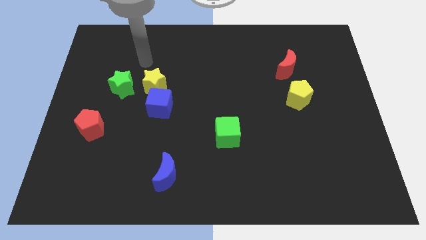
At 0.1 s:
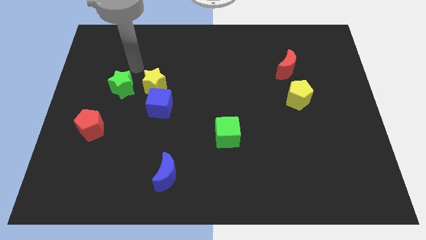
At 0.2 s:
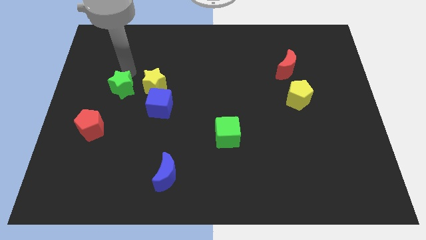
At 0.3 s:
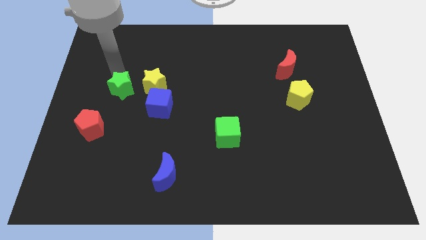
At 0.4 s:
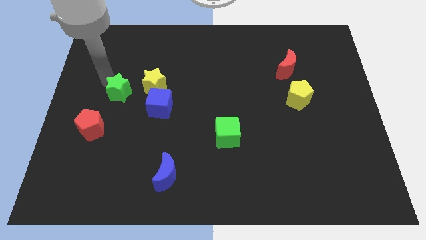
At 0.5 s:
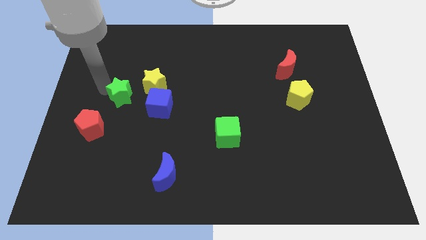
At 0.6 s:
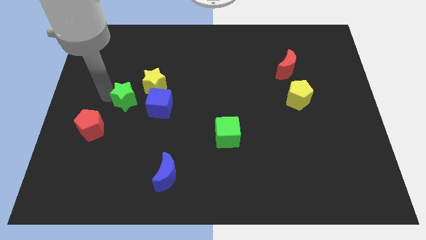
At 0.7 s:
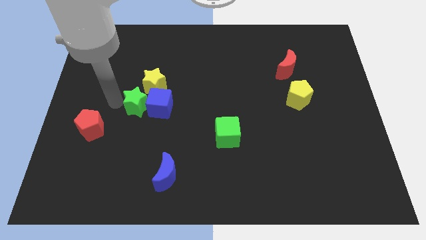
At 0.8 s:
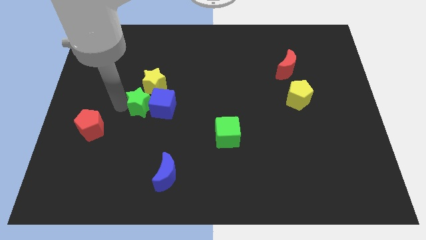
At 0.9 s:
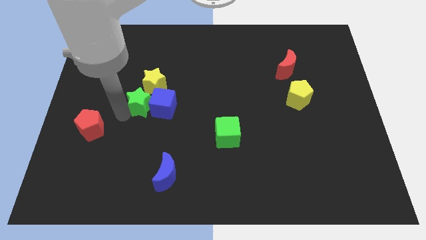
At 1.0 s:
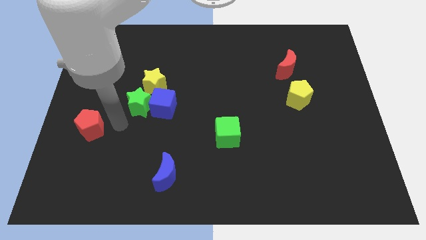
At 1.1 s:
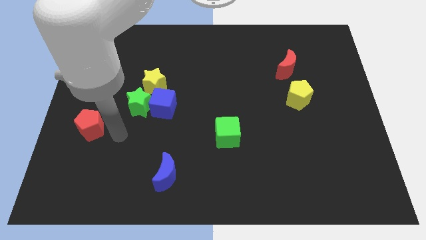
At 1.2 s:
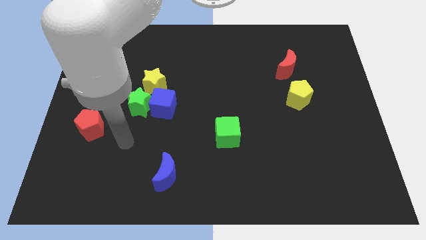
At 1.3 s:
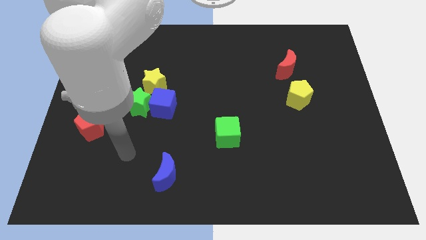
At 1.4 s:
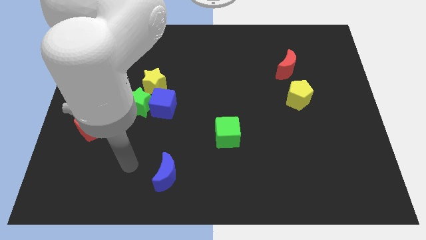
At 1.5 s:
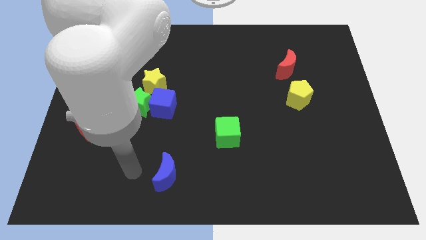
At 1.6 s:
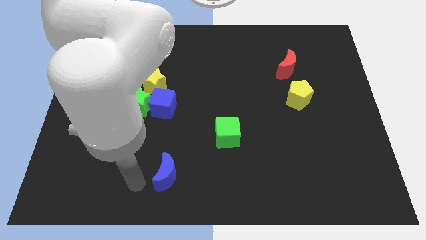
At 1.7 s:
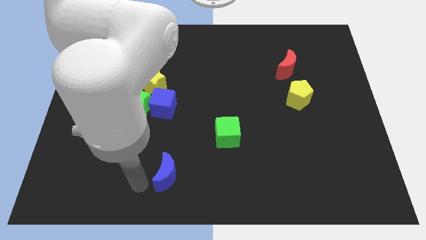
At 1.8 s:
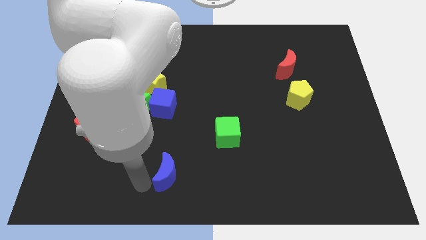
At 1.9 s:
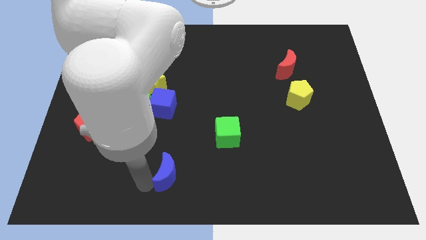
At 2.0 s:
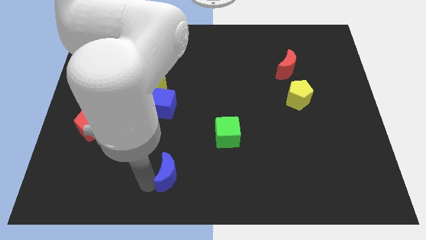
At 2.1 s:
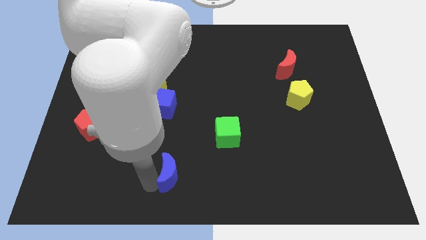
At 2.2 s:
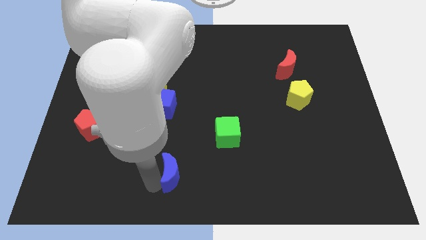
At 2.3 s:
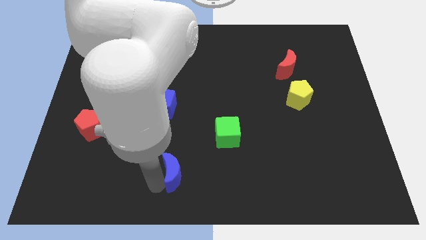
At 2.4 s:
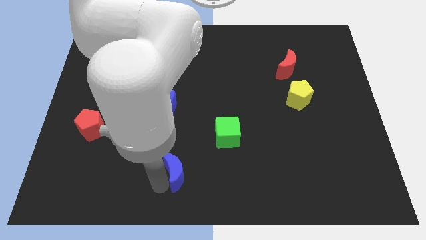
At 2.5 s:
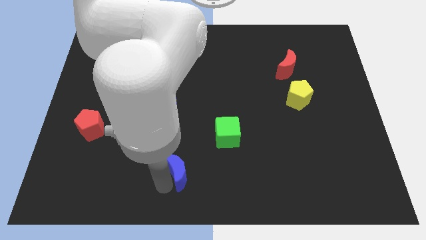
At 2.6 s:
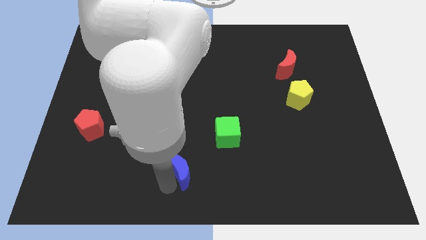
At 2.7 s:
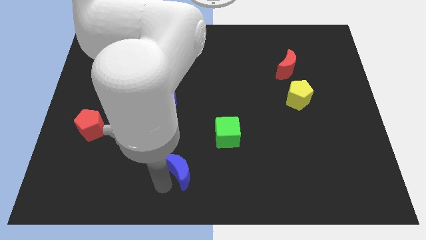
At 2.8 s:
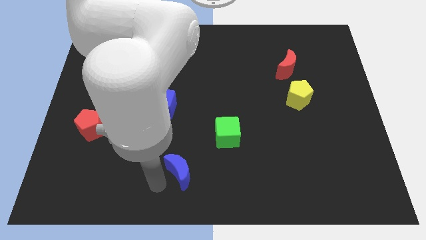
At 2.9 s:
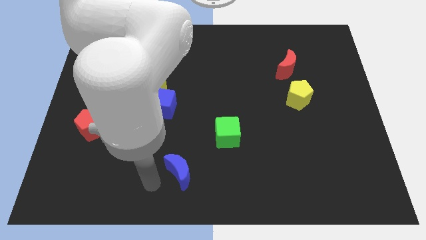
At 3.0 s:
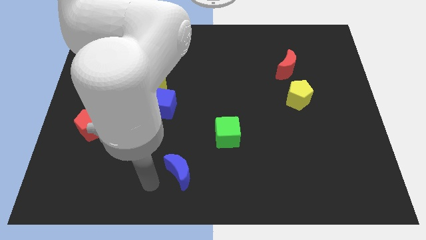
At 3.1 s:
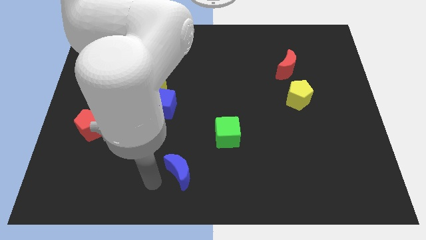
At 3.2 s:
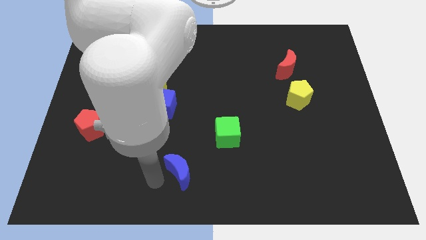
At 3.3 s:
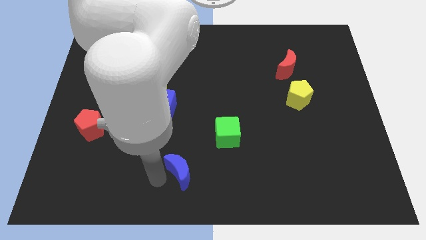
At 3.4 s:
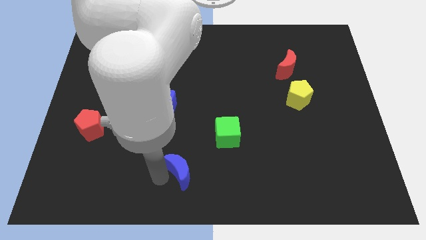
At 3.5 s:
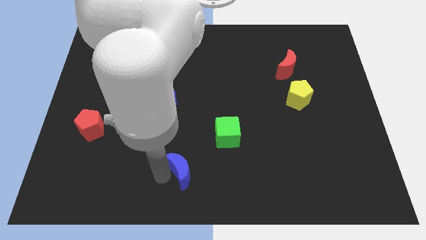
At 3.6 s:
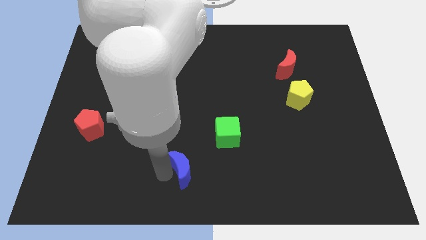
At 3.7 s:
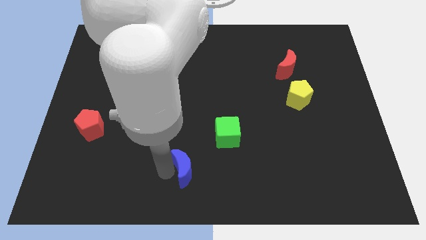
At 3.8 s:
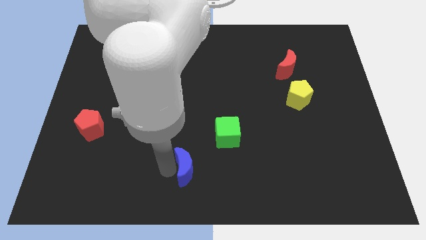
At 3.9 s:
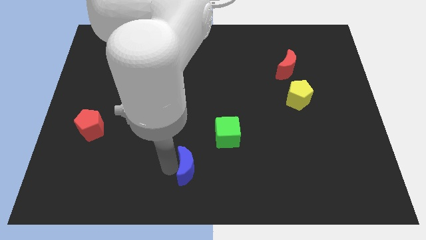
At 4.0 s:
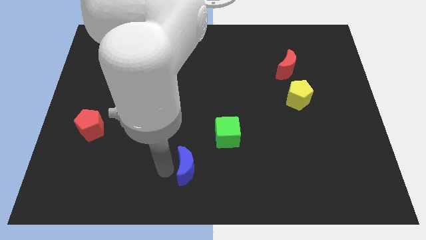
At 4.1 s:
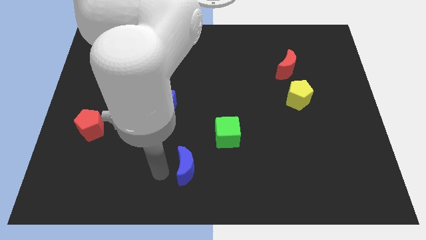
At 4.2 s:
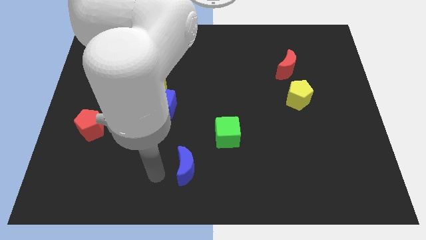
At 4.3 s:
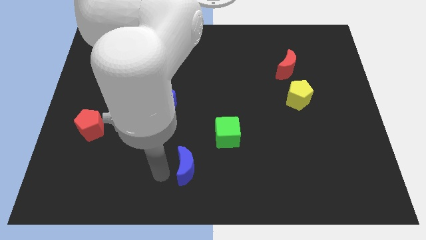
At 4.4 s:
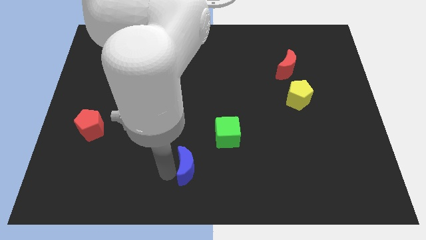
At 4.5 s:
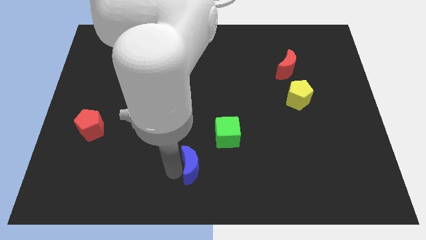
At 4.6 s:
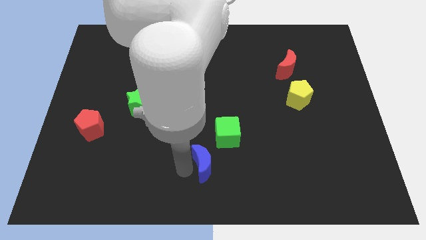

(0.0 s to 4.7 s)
push the blue moon somewhat upwards and then right

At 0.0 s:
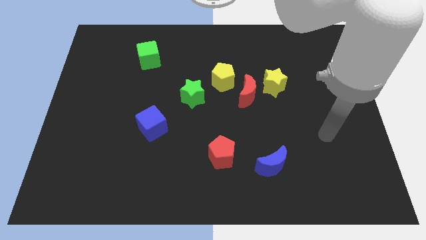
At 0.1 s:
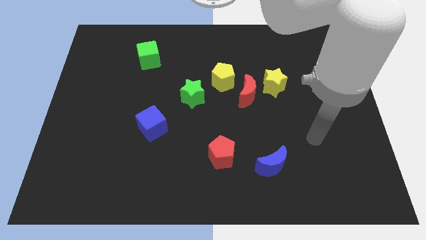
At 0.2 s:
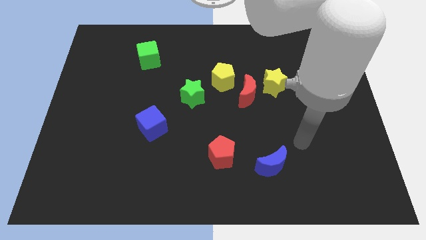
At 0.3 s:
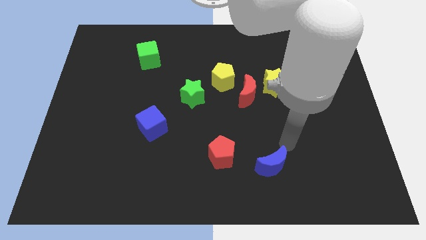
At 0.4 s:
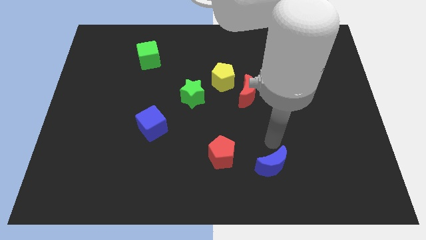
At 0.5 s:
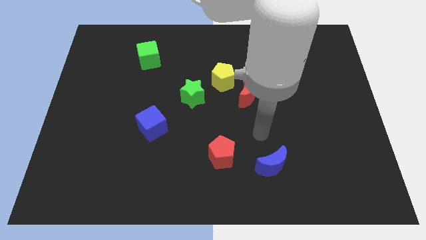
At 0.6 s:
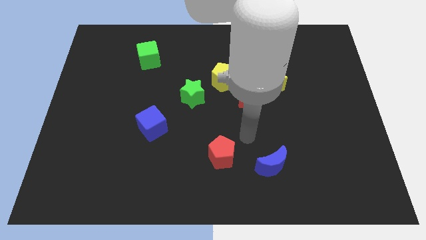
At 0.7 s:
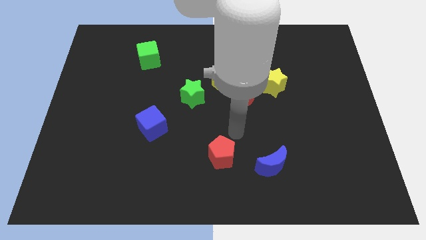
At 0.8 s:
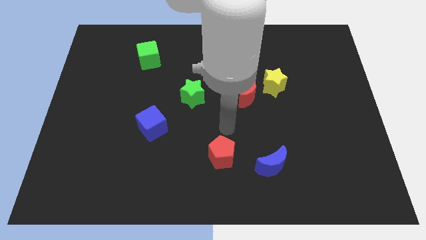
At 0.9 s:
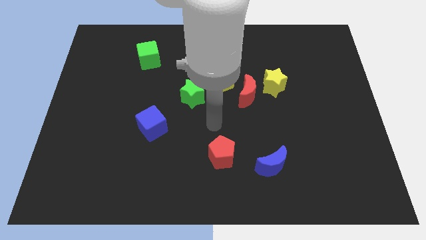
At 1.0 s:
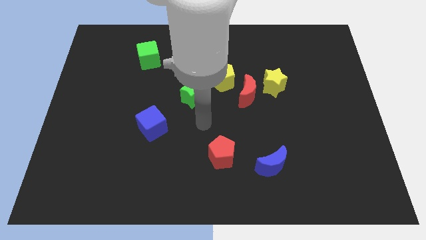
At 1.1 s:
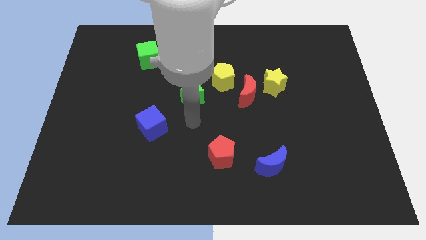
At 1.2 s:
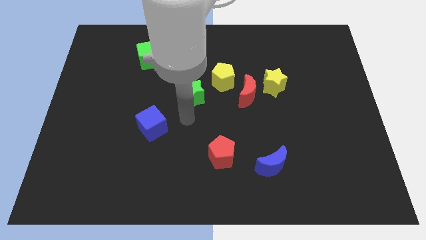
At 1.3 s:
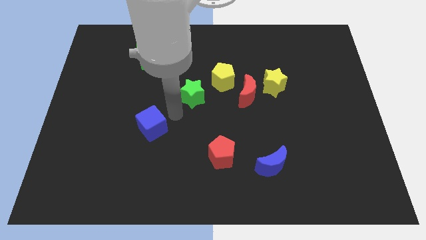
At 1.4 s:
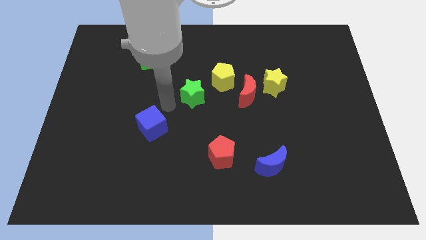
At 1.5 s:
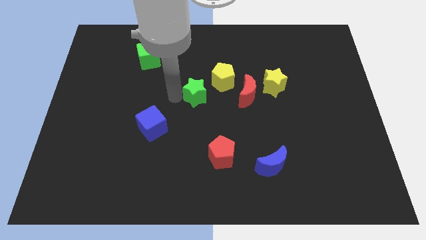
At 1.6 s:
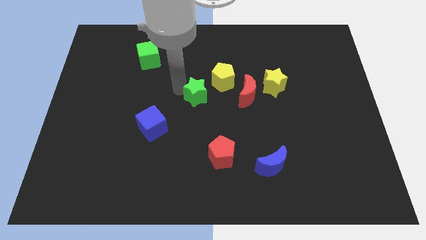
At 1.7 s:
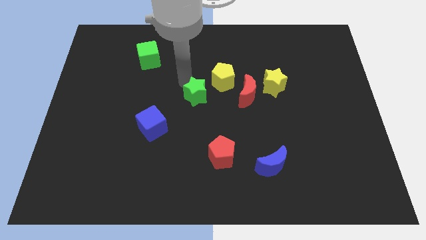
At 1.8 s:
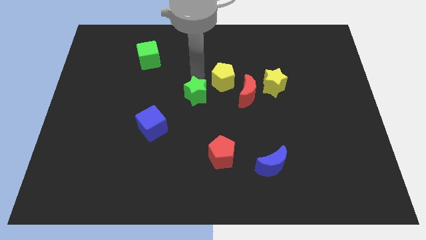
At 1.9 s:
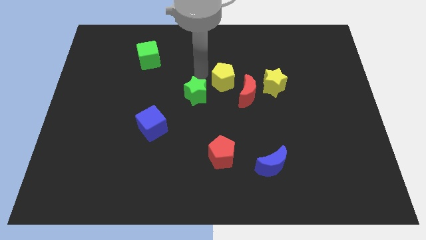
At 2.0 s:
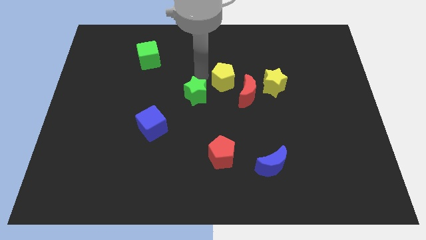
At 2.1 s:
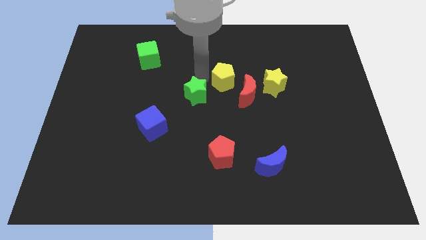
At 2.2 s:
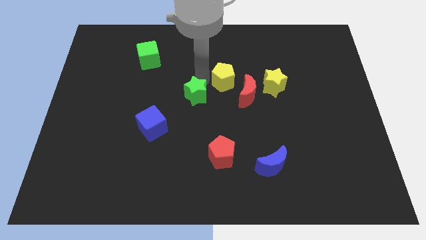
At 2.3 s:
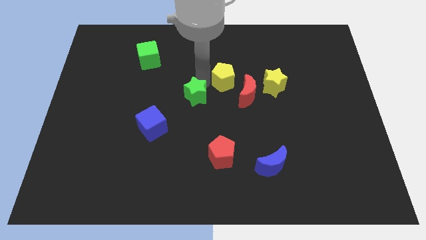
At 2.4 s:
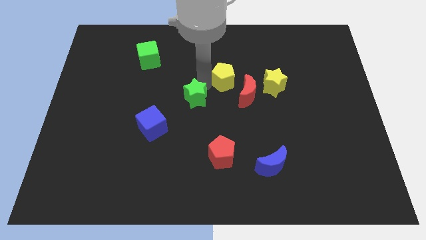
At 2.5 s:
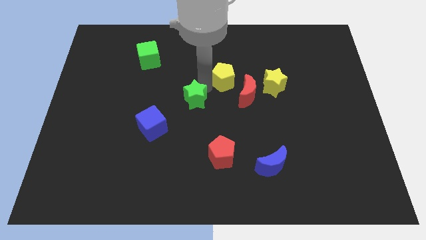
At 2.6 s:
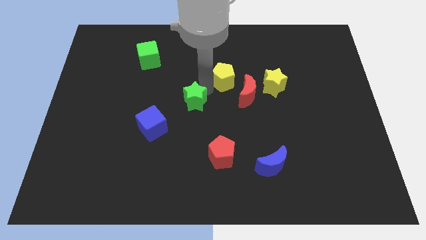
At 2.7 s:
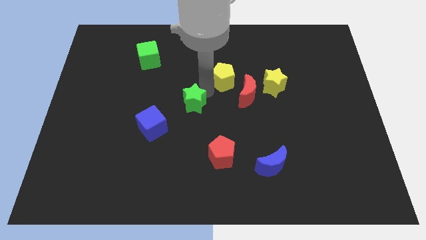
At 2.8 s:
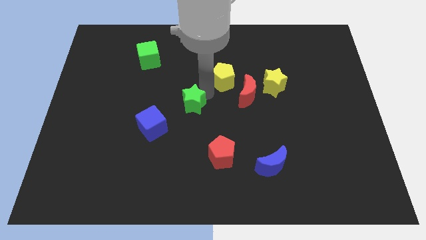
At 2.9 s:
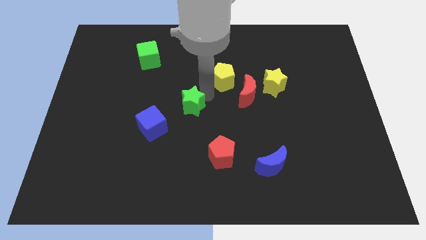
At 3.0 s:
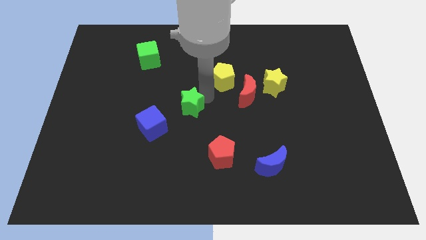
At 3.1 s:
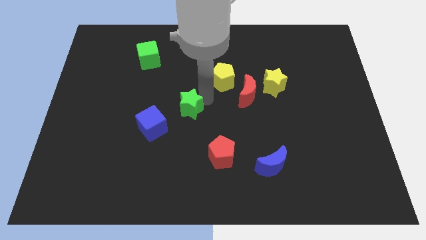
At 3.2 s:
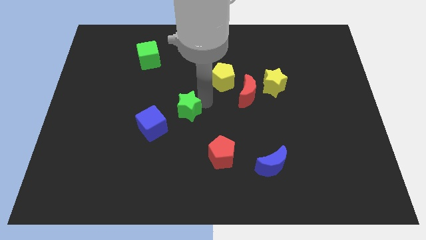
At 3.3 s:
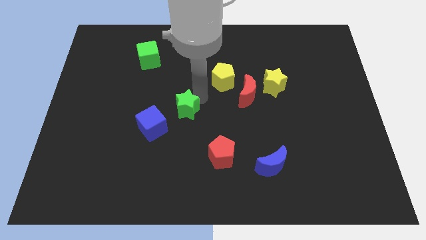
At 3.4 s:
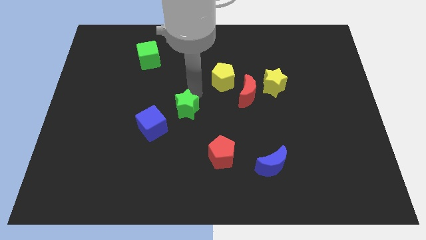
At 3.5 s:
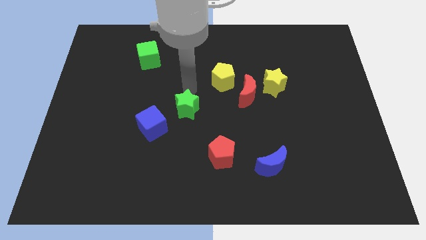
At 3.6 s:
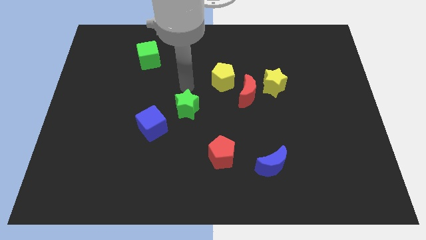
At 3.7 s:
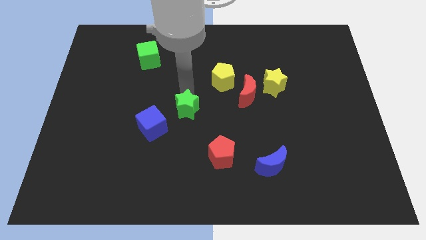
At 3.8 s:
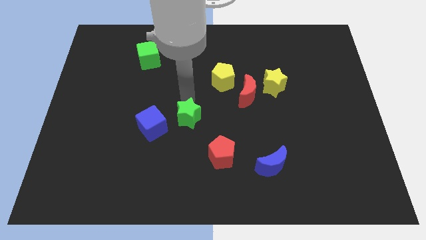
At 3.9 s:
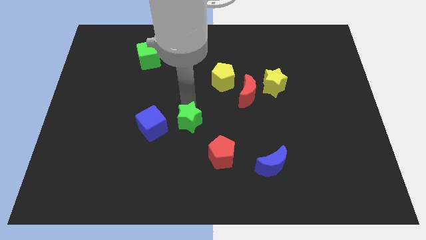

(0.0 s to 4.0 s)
slide the green star downwards slightly
